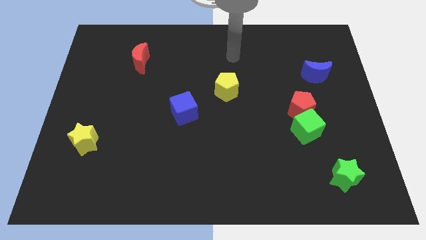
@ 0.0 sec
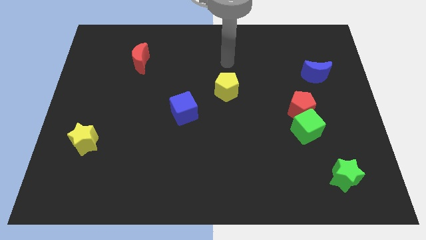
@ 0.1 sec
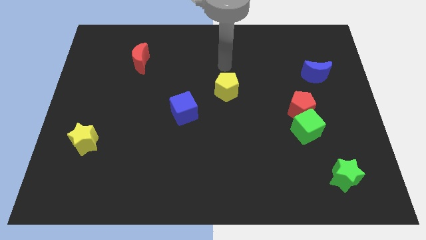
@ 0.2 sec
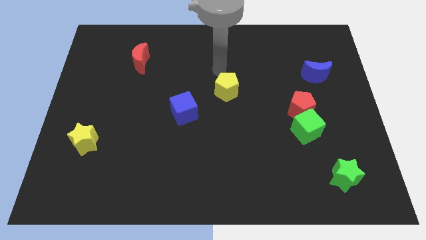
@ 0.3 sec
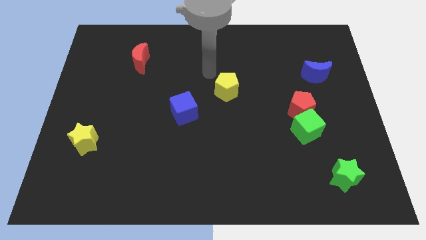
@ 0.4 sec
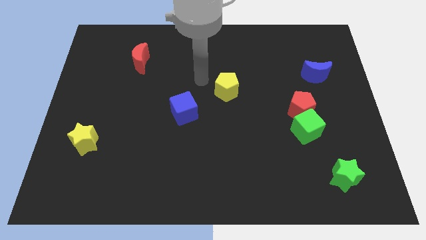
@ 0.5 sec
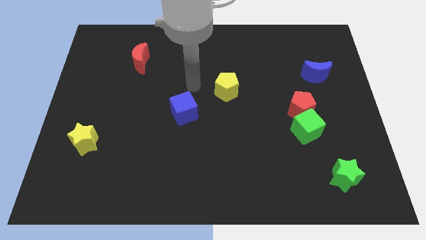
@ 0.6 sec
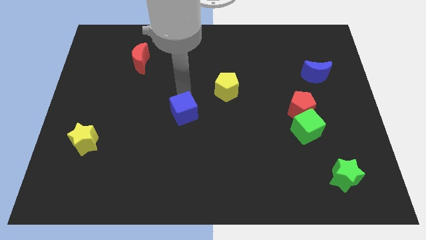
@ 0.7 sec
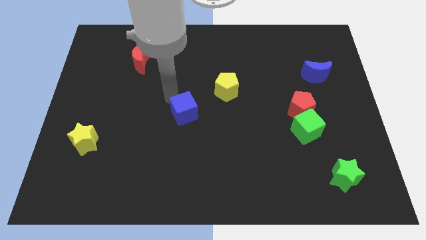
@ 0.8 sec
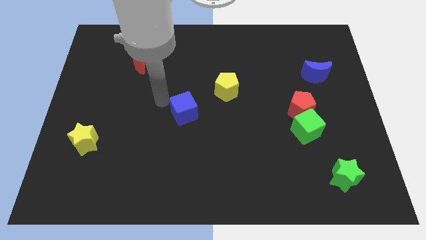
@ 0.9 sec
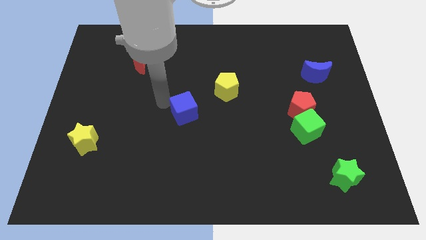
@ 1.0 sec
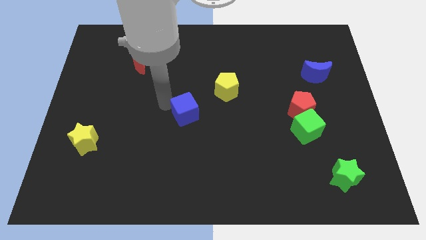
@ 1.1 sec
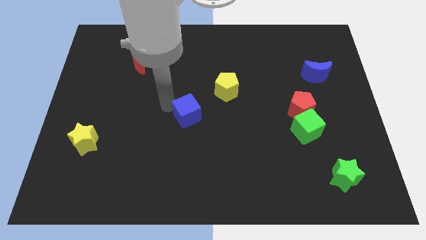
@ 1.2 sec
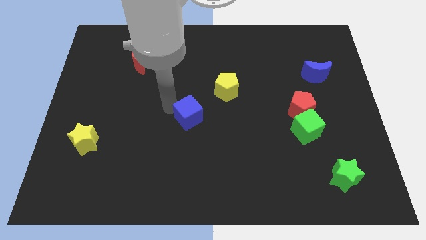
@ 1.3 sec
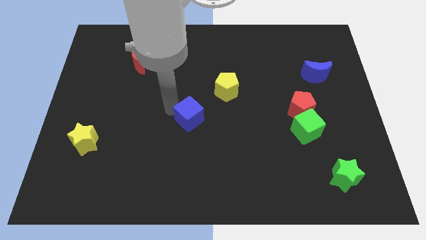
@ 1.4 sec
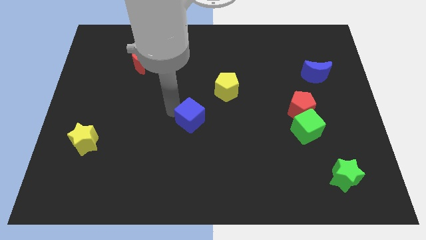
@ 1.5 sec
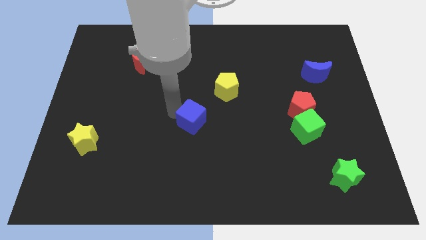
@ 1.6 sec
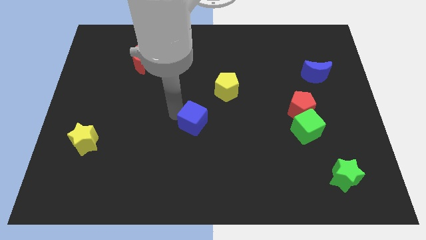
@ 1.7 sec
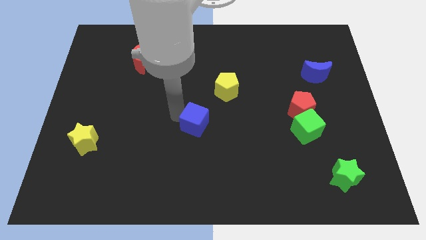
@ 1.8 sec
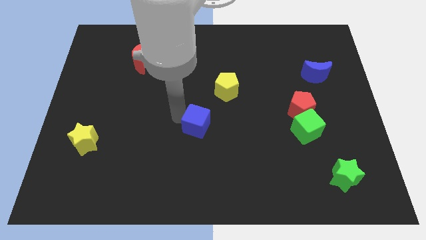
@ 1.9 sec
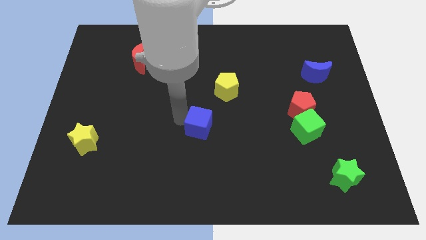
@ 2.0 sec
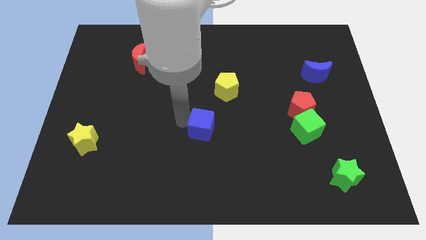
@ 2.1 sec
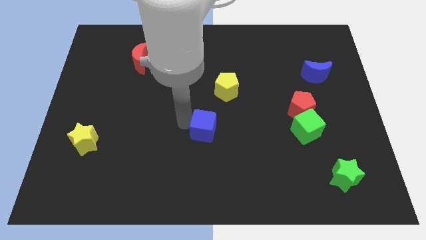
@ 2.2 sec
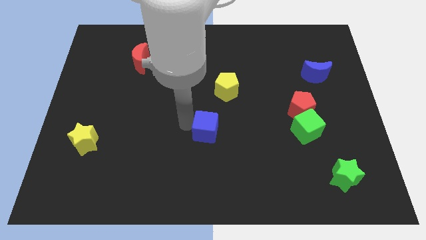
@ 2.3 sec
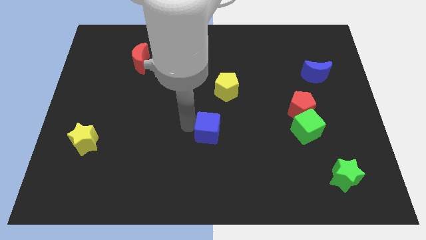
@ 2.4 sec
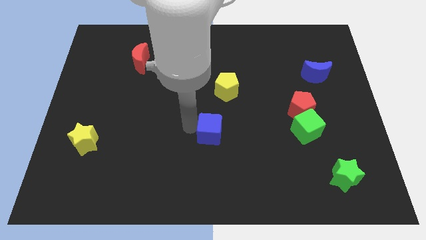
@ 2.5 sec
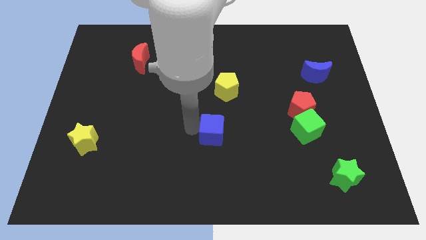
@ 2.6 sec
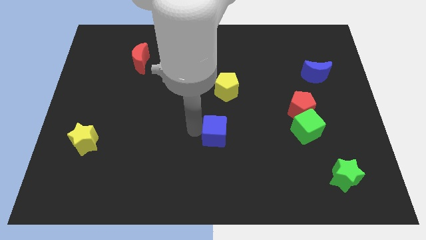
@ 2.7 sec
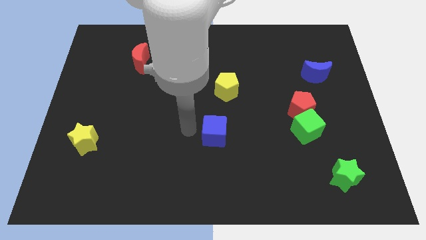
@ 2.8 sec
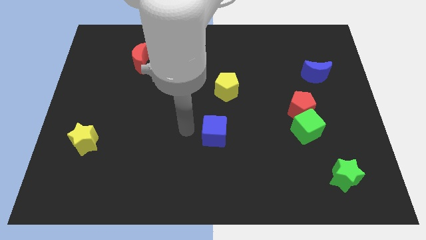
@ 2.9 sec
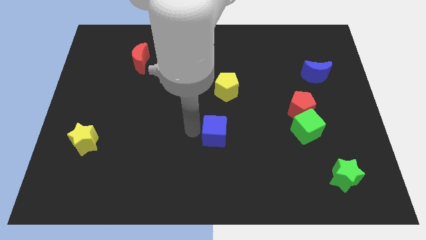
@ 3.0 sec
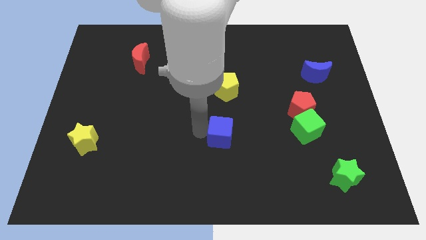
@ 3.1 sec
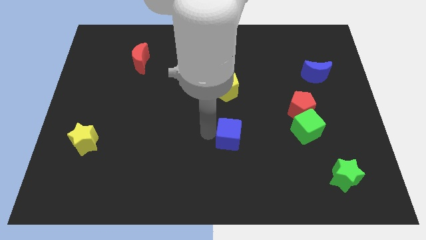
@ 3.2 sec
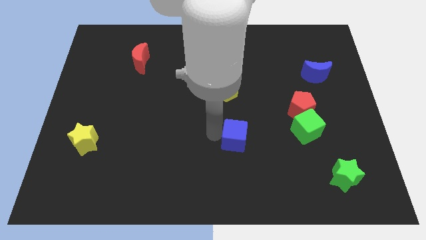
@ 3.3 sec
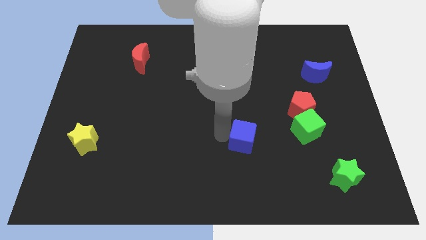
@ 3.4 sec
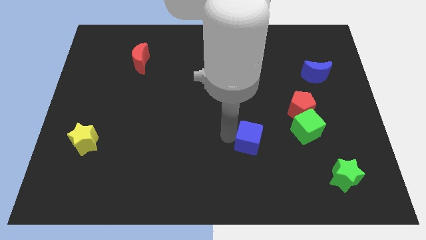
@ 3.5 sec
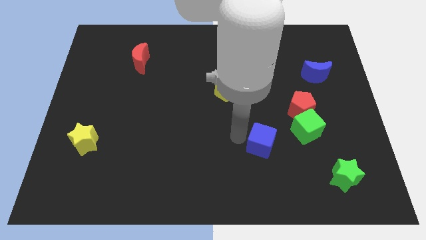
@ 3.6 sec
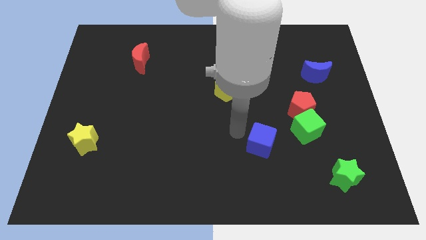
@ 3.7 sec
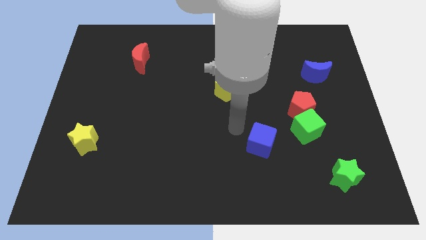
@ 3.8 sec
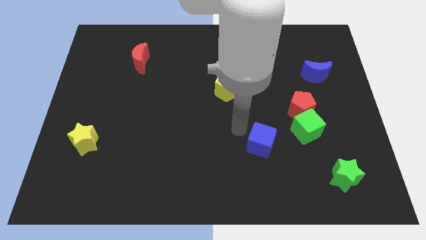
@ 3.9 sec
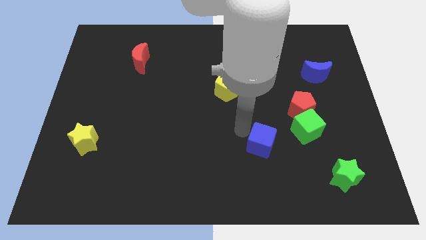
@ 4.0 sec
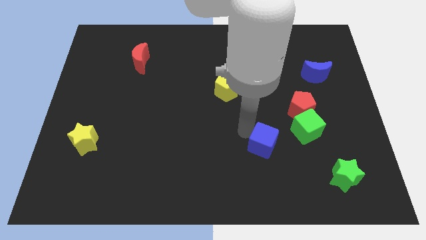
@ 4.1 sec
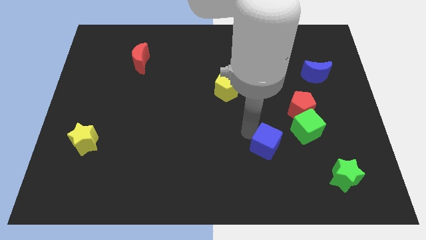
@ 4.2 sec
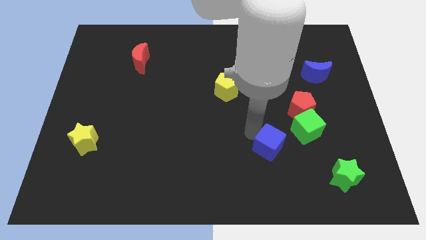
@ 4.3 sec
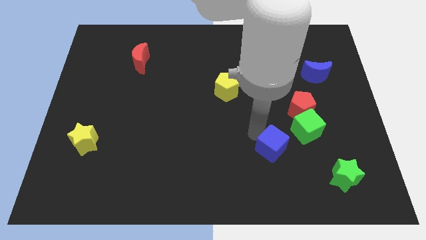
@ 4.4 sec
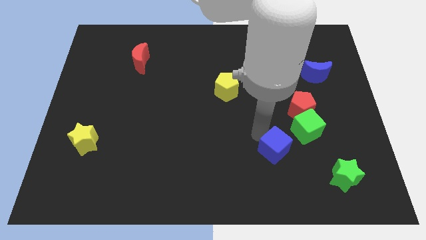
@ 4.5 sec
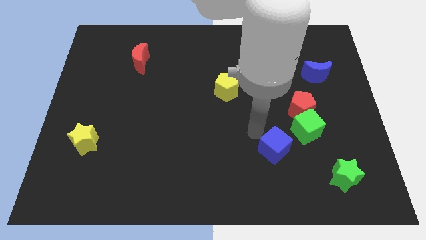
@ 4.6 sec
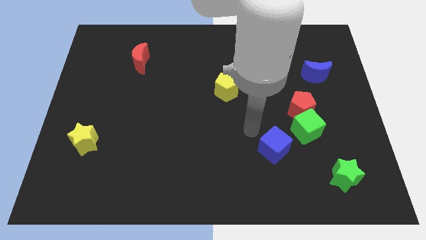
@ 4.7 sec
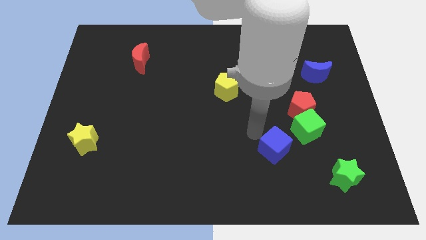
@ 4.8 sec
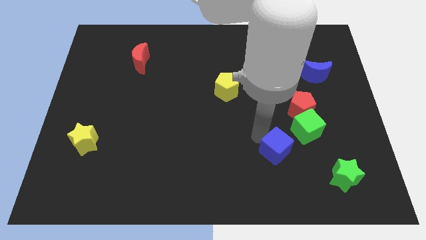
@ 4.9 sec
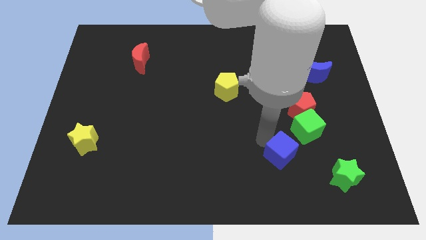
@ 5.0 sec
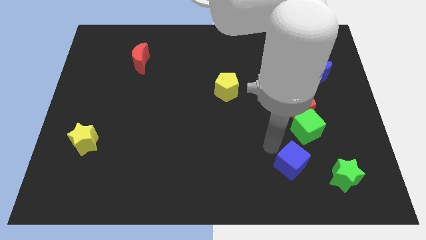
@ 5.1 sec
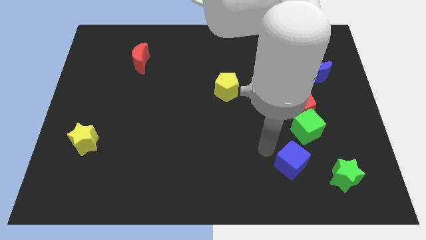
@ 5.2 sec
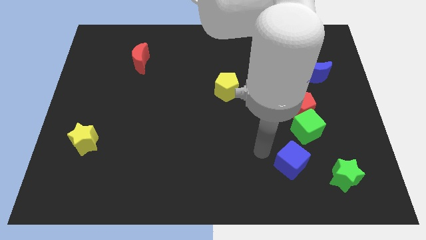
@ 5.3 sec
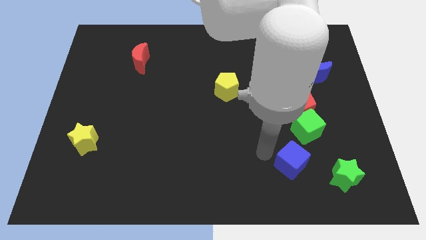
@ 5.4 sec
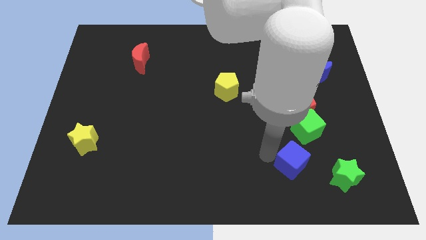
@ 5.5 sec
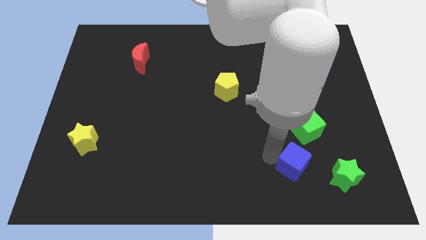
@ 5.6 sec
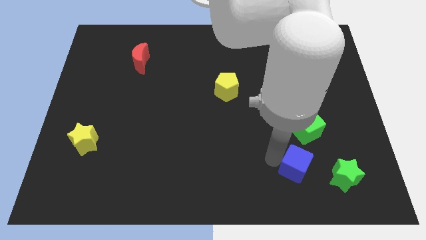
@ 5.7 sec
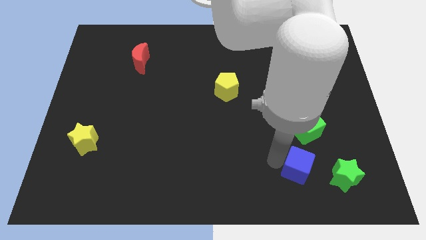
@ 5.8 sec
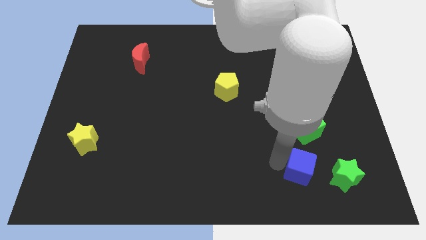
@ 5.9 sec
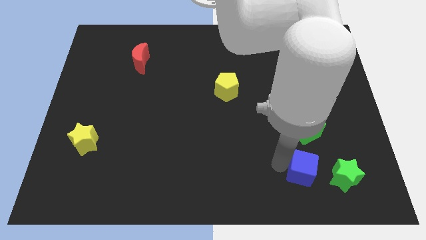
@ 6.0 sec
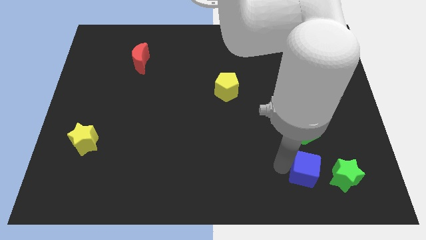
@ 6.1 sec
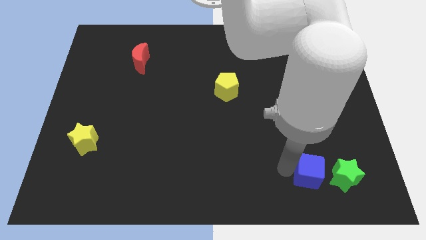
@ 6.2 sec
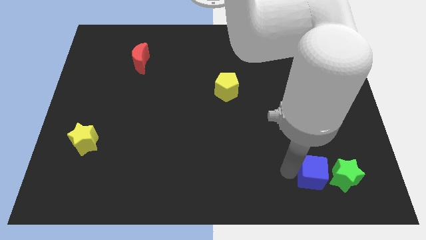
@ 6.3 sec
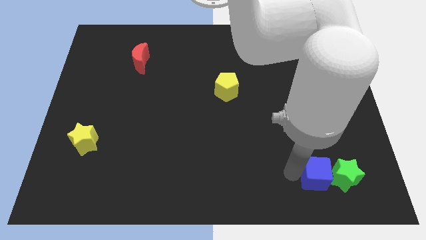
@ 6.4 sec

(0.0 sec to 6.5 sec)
slide the blue cube to the green star

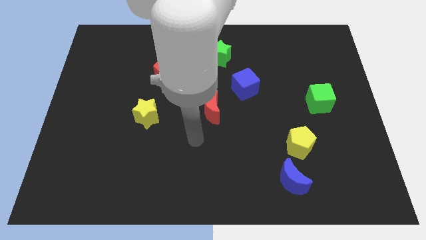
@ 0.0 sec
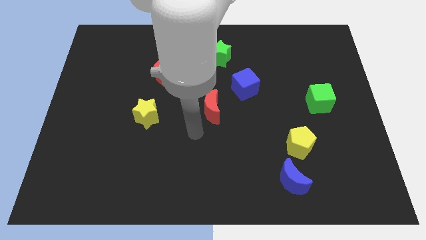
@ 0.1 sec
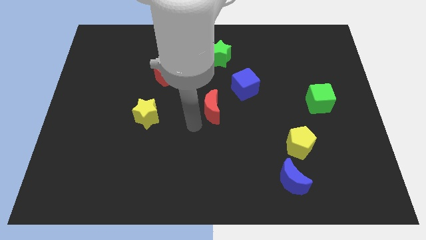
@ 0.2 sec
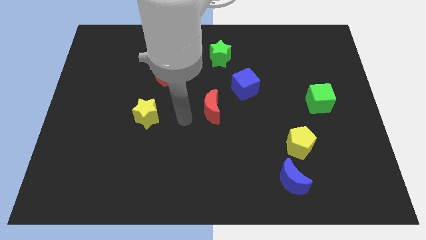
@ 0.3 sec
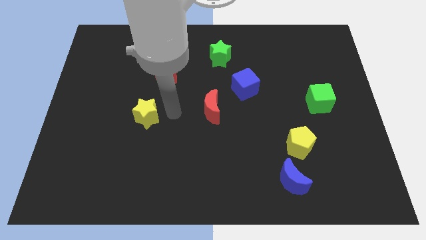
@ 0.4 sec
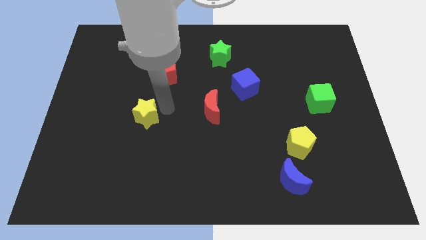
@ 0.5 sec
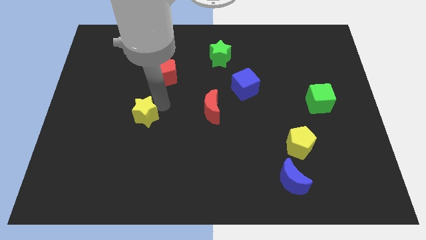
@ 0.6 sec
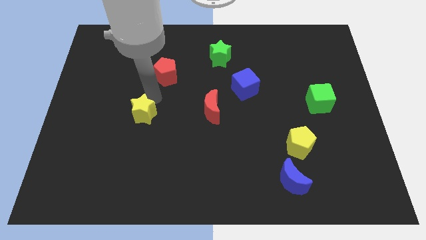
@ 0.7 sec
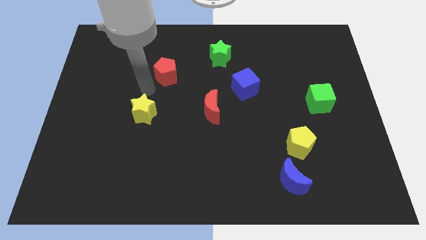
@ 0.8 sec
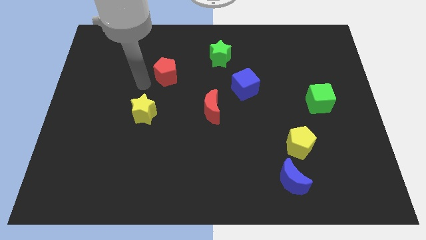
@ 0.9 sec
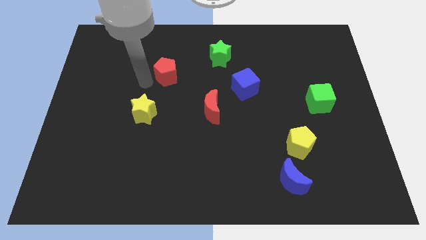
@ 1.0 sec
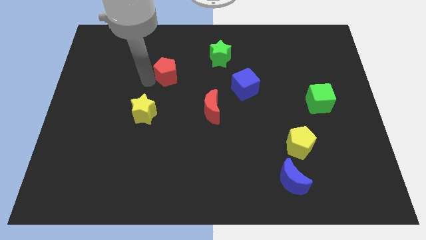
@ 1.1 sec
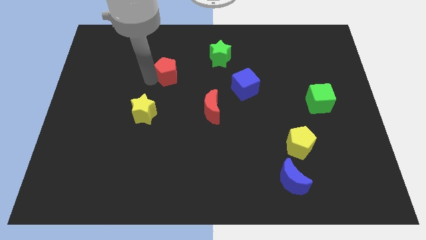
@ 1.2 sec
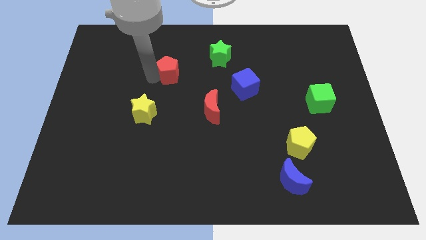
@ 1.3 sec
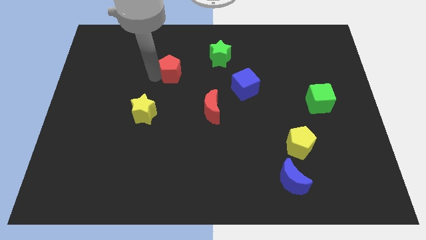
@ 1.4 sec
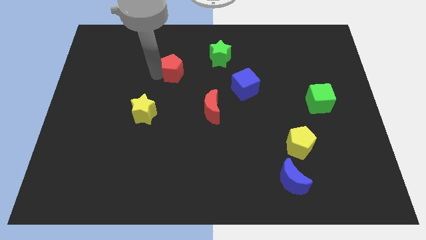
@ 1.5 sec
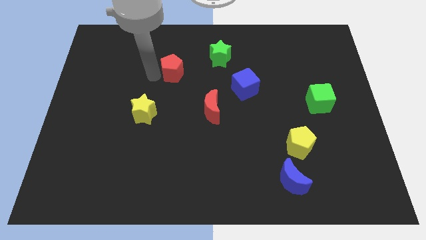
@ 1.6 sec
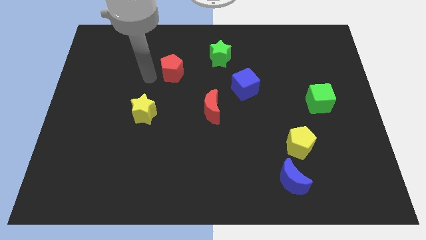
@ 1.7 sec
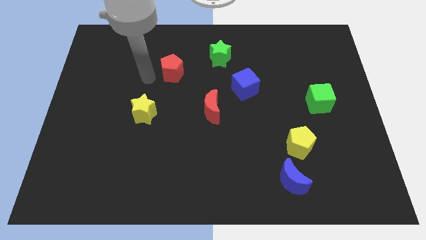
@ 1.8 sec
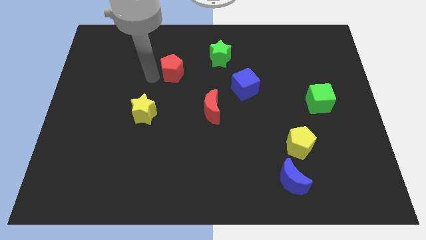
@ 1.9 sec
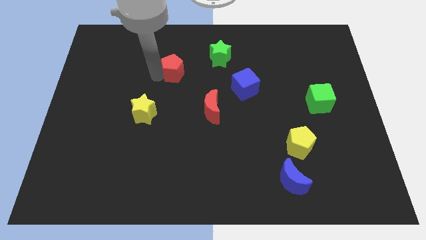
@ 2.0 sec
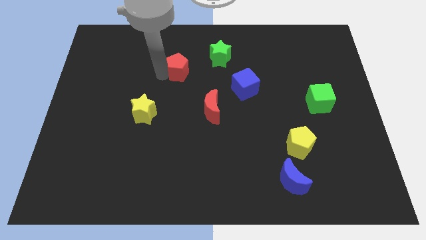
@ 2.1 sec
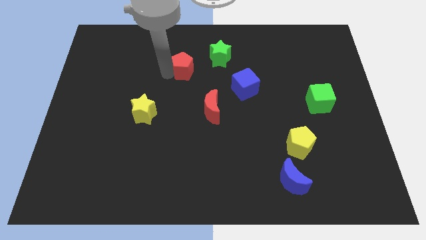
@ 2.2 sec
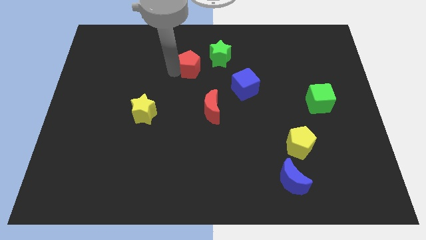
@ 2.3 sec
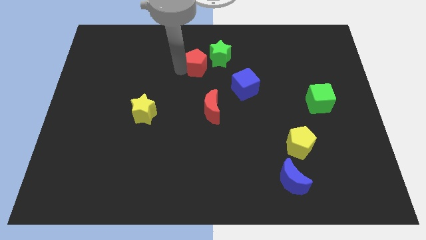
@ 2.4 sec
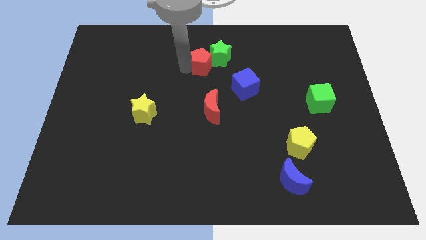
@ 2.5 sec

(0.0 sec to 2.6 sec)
move the red pentagon to the green star
